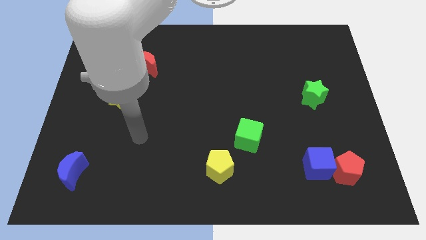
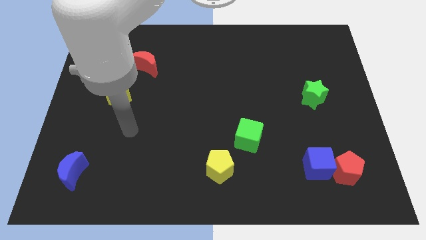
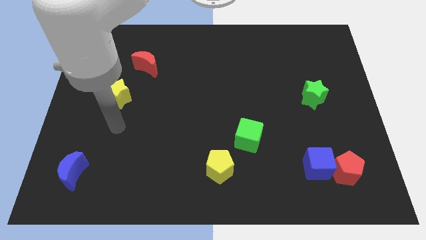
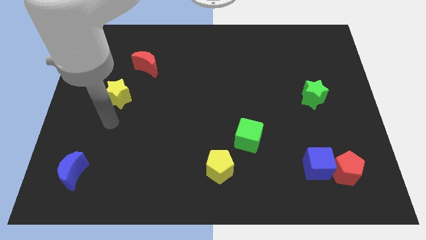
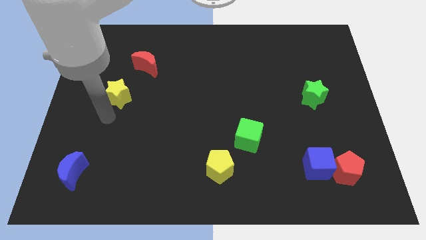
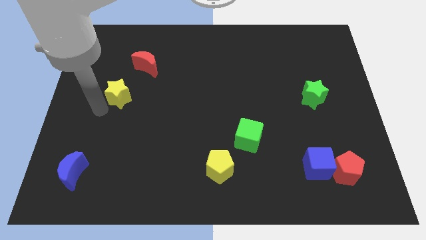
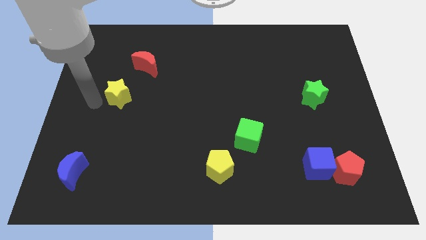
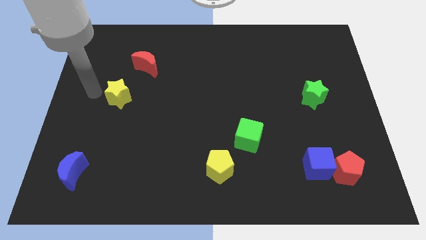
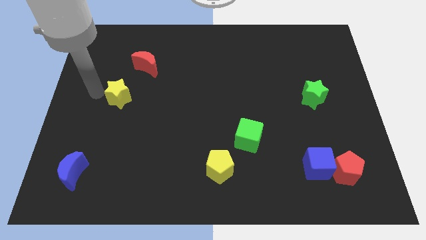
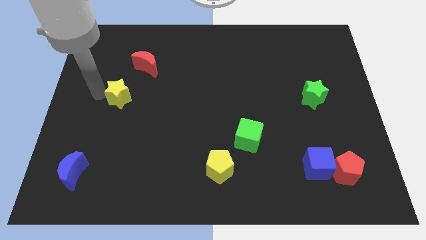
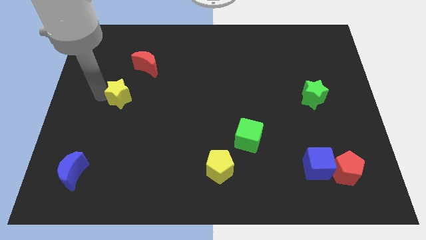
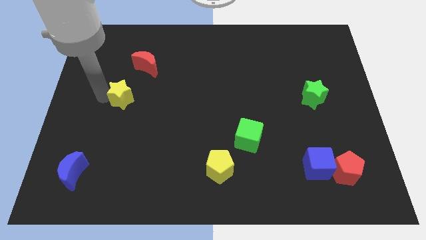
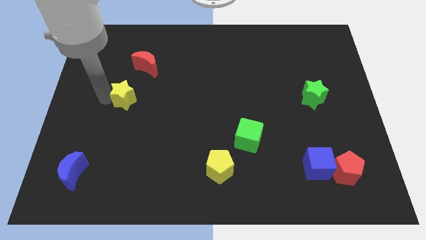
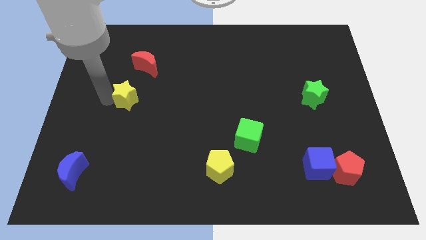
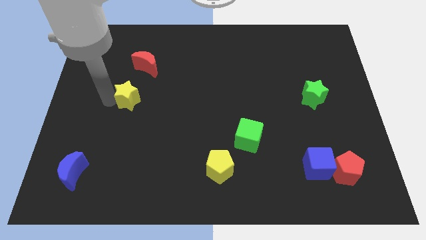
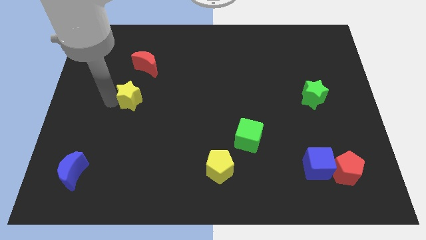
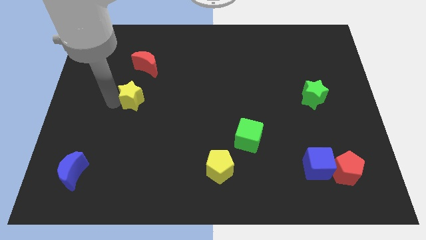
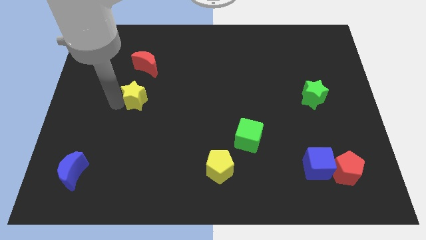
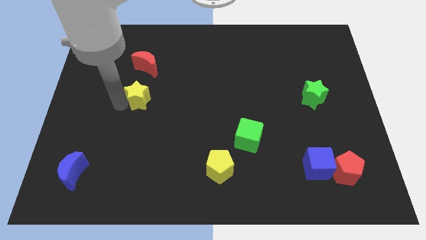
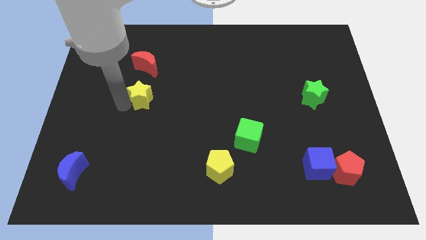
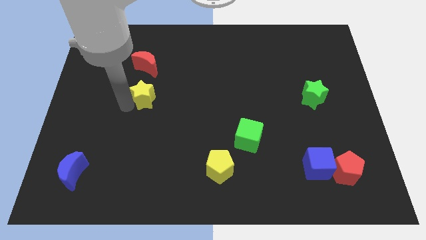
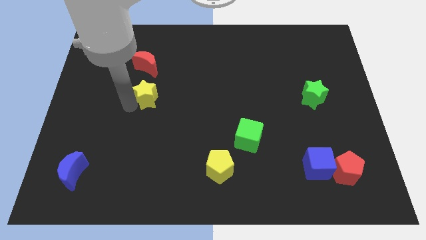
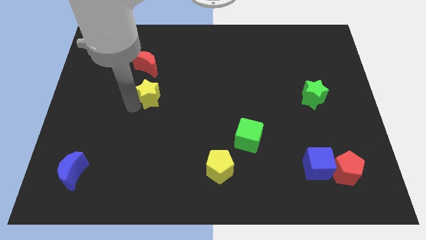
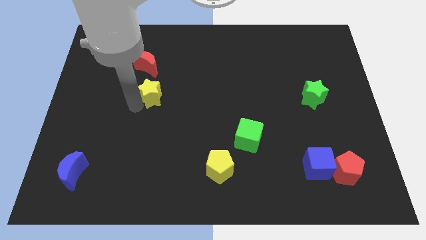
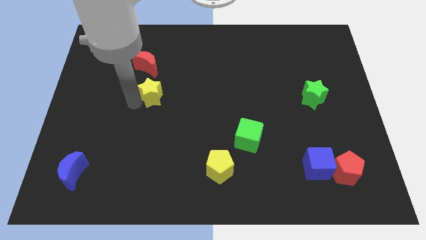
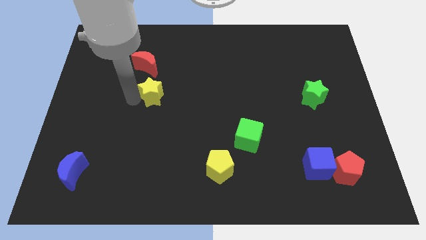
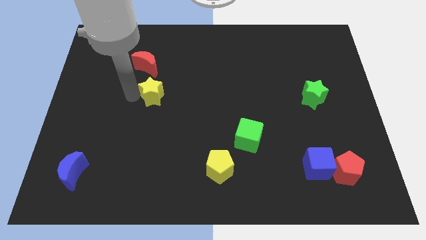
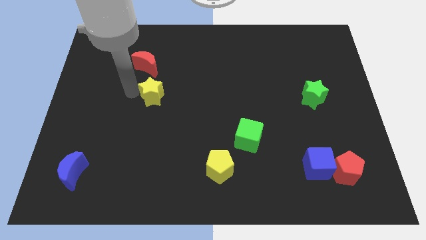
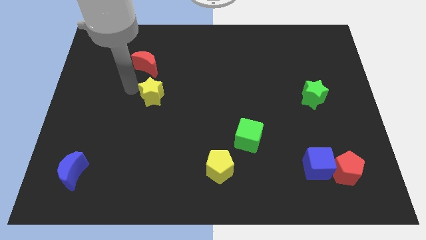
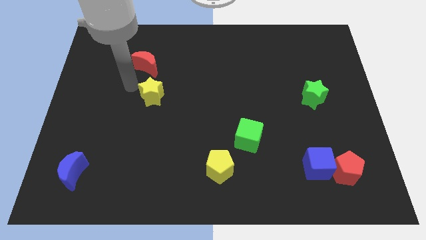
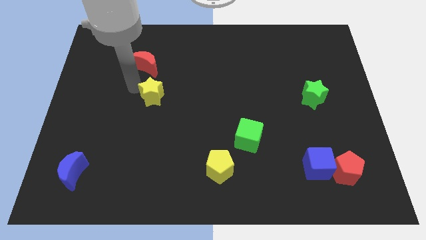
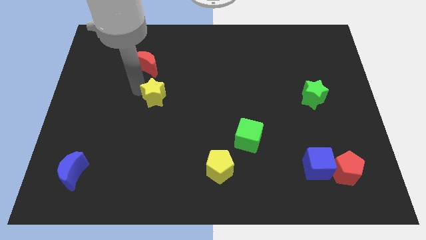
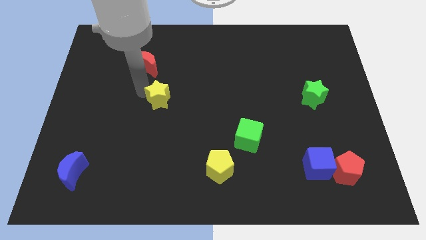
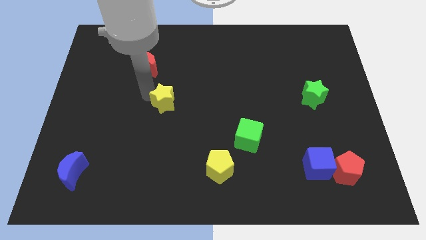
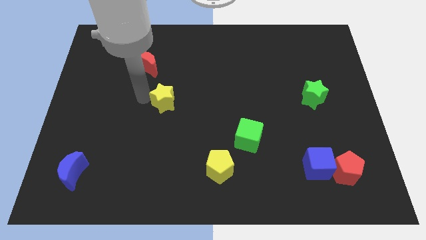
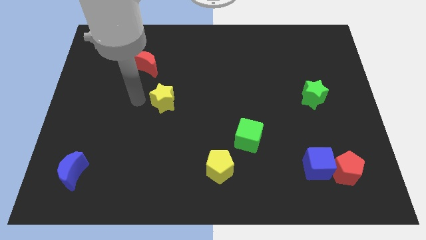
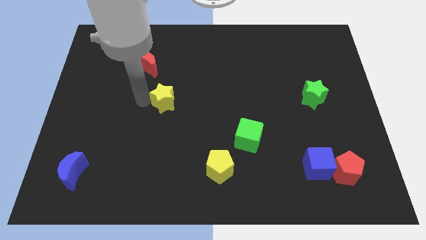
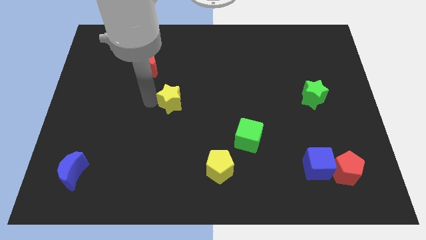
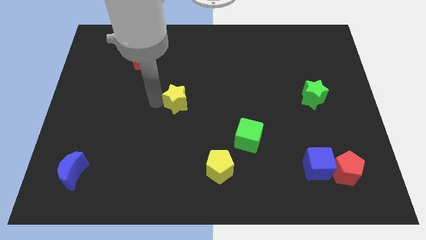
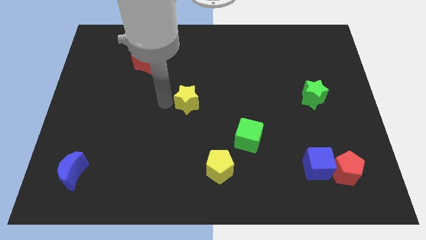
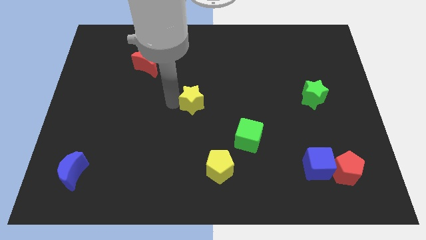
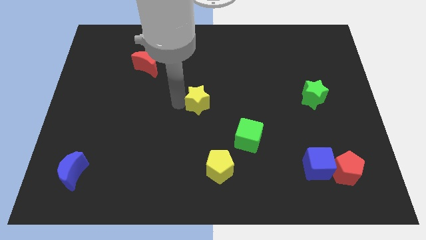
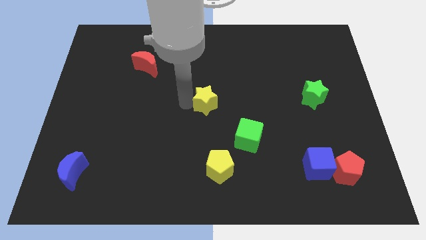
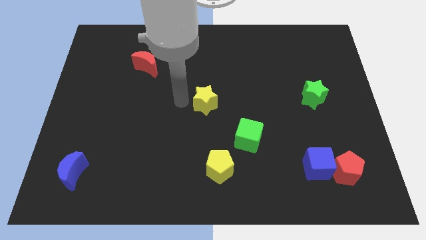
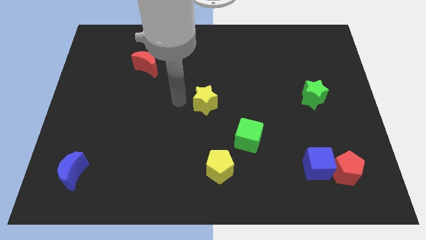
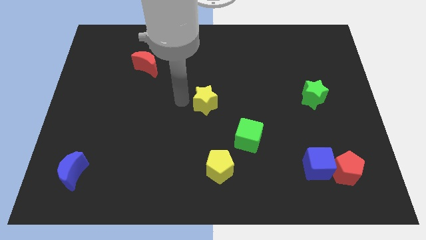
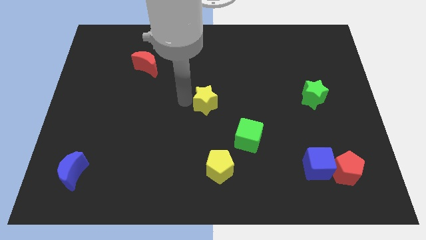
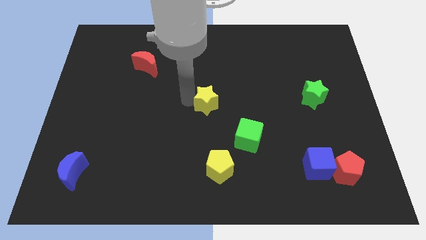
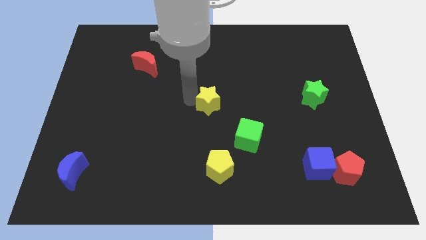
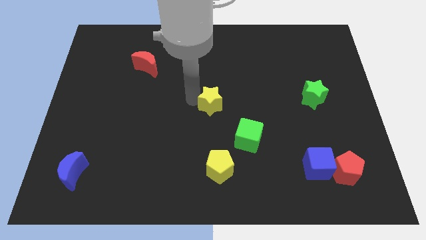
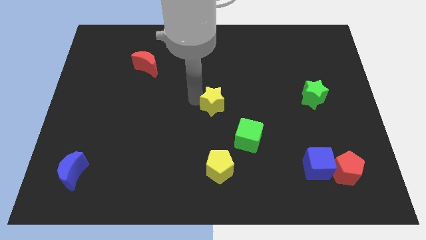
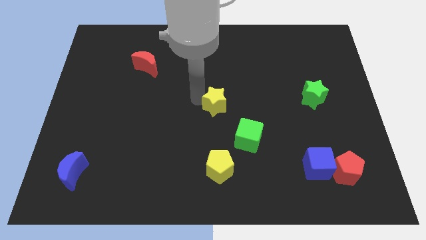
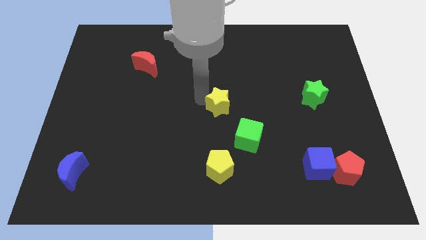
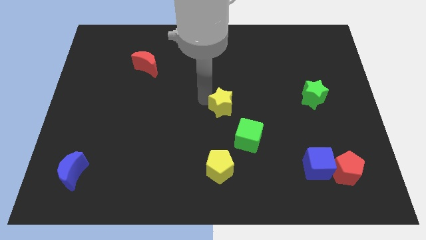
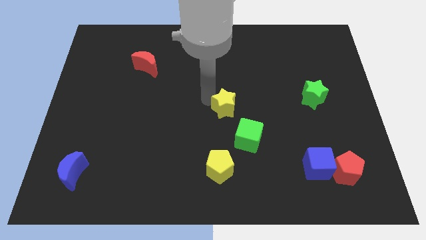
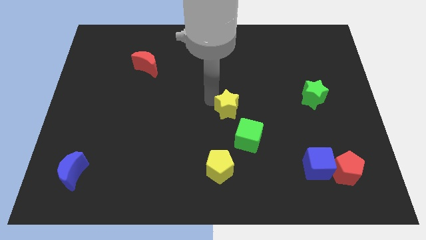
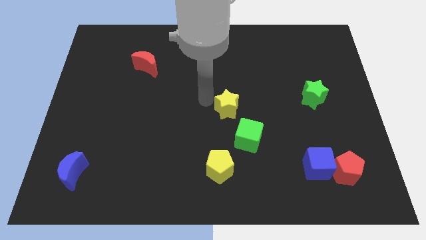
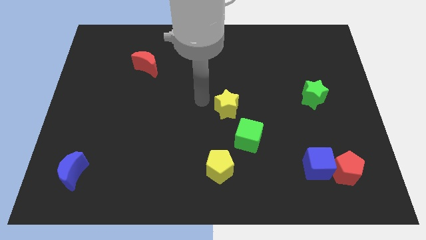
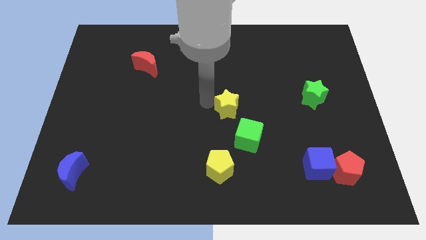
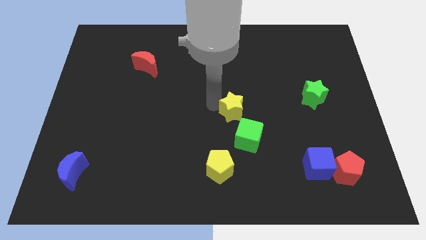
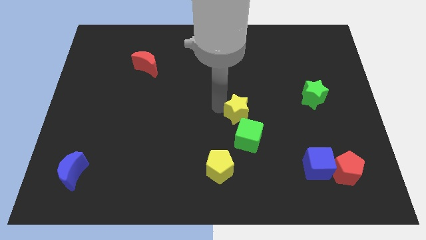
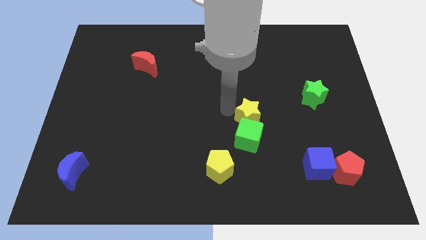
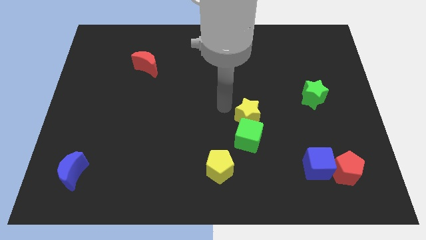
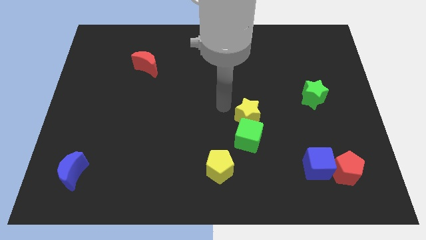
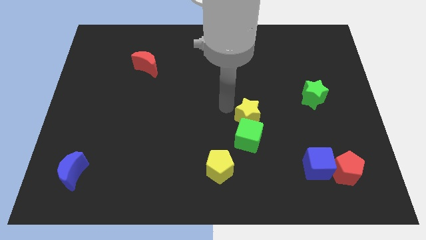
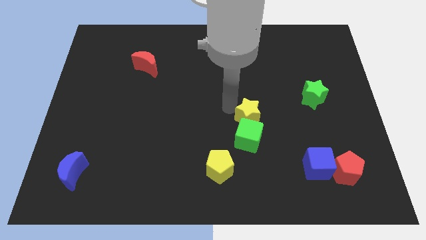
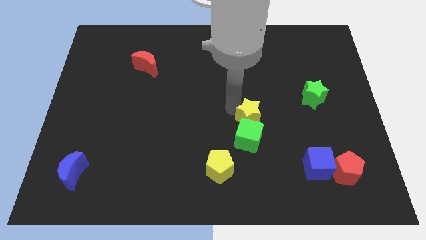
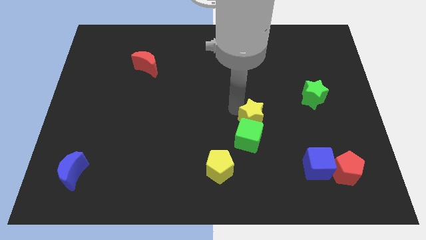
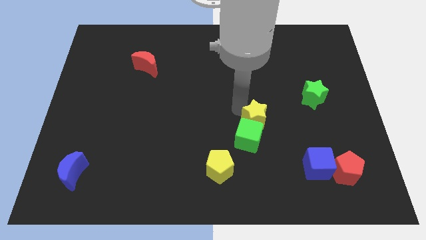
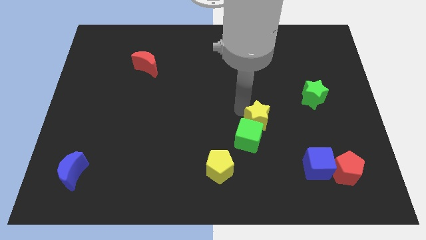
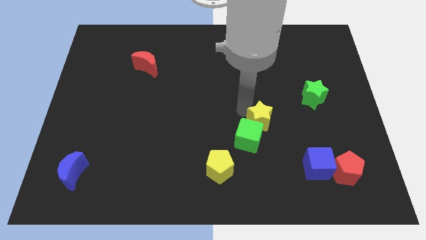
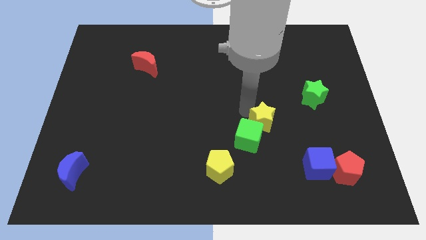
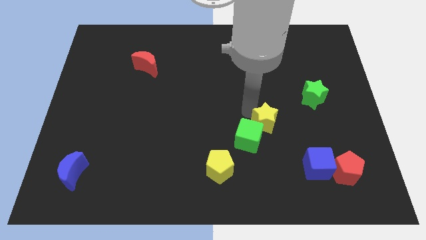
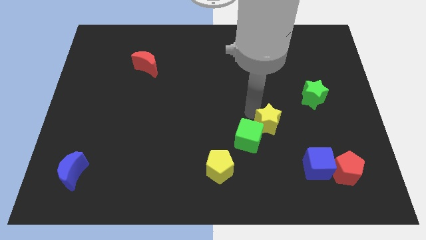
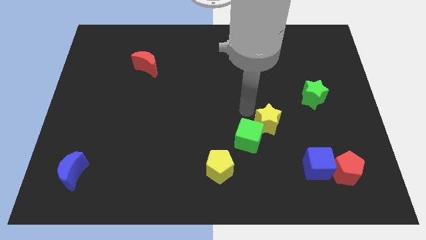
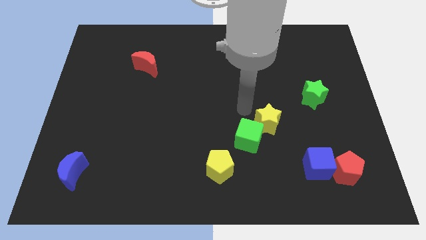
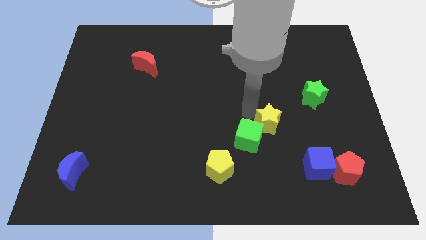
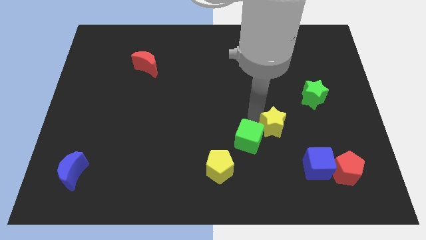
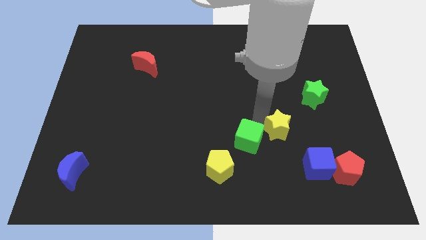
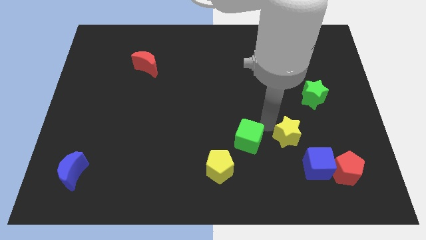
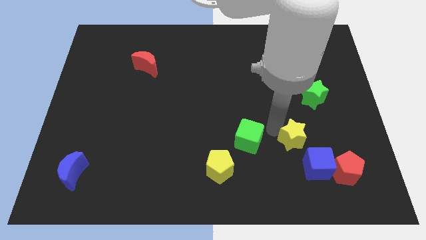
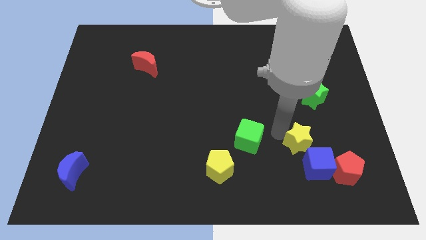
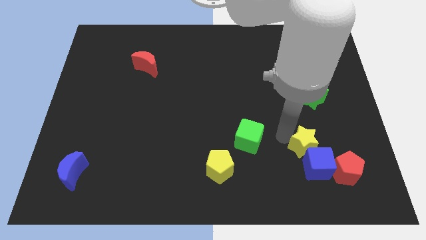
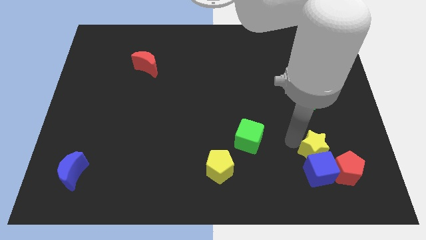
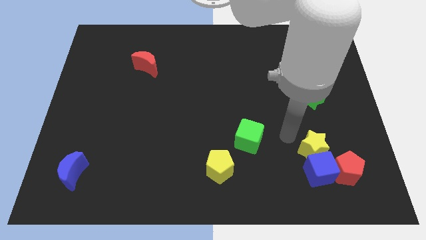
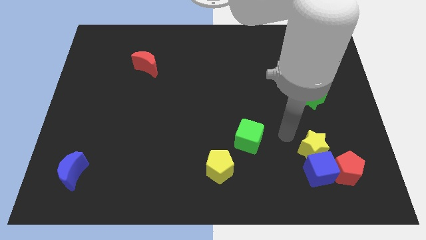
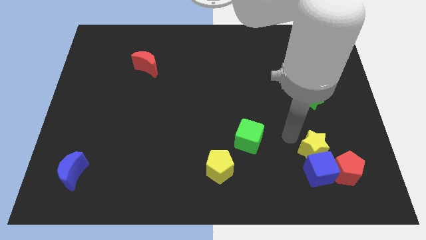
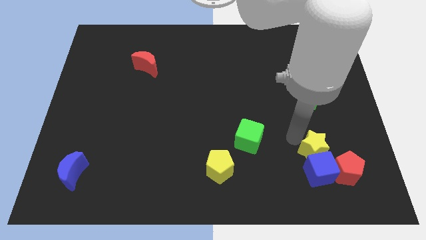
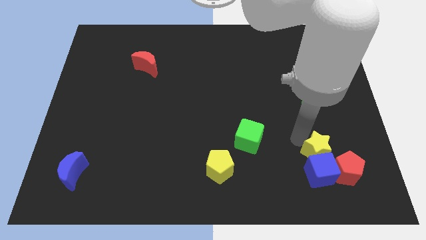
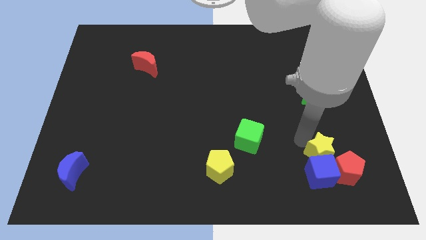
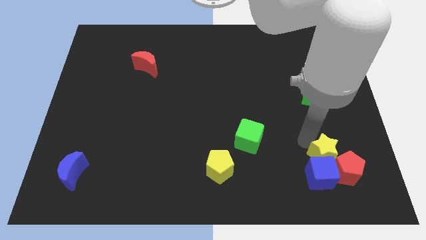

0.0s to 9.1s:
push the yellow star close to the red pentagon
